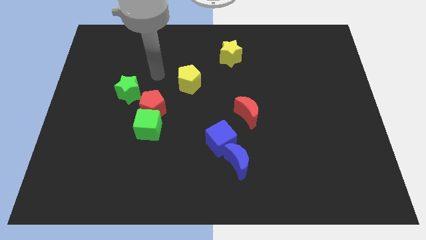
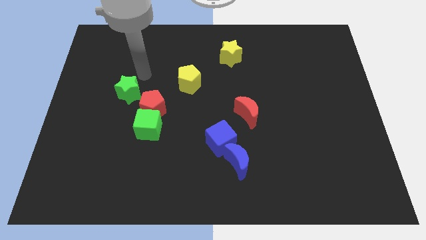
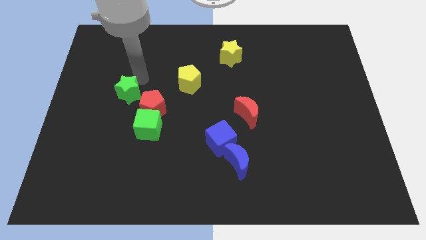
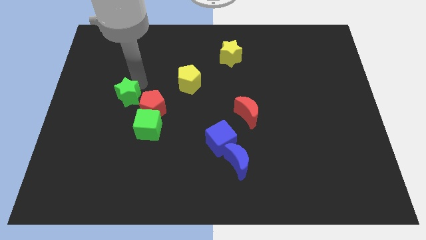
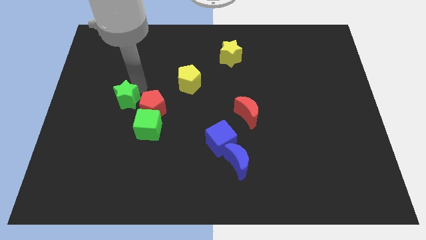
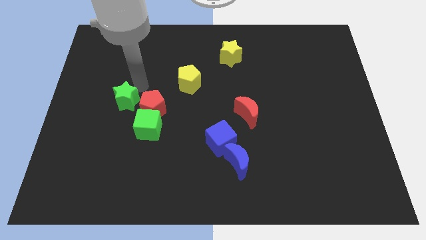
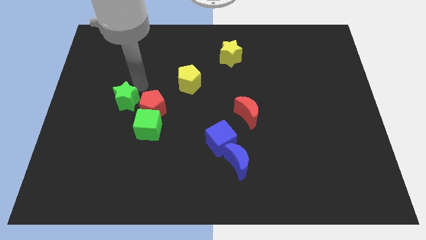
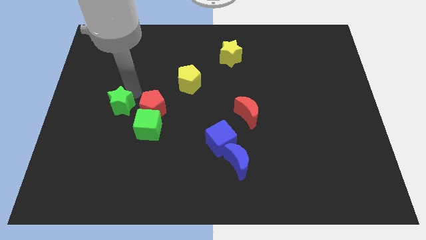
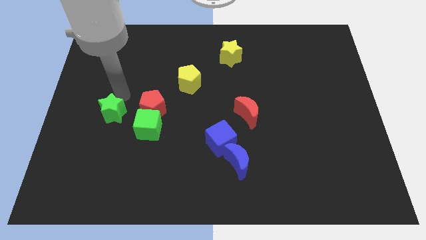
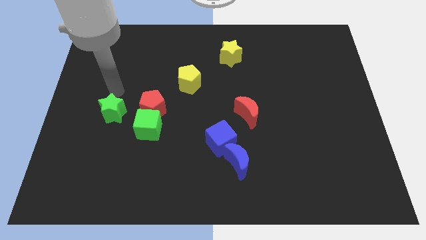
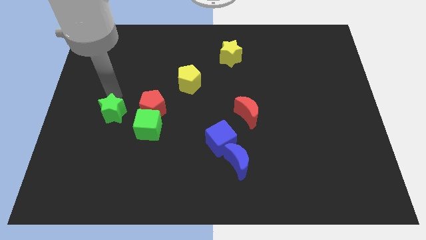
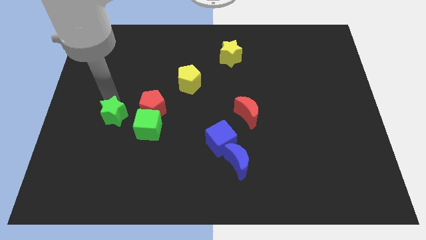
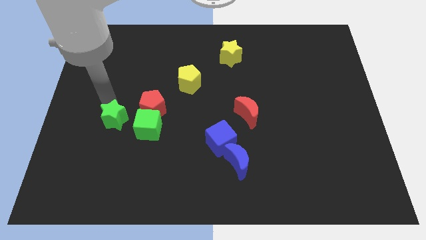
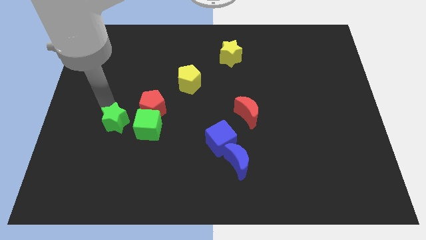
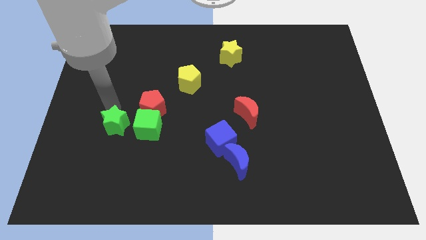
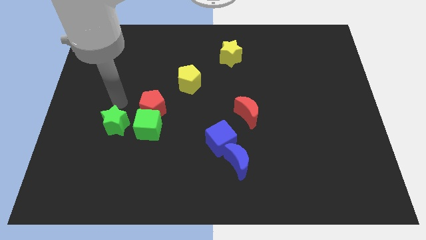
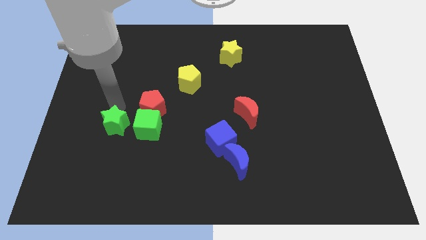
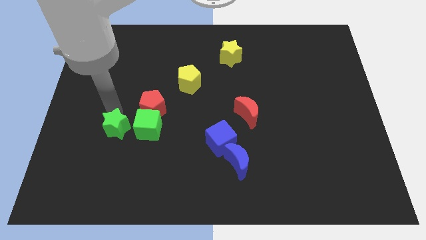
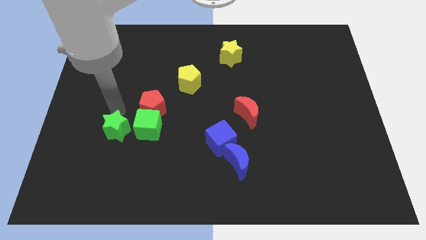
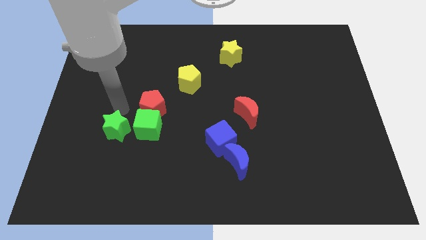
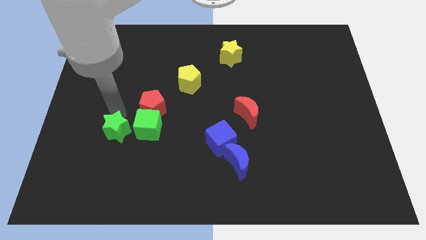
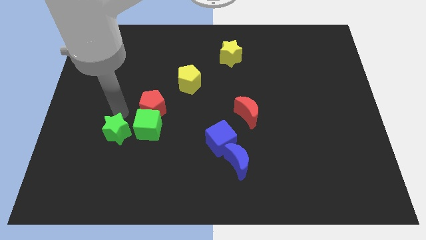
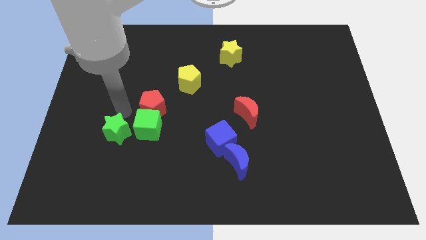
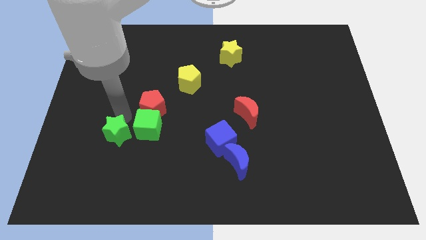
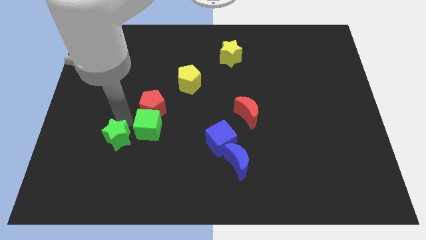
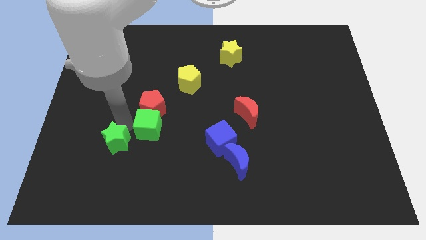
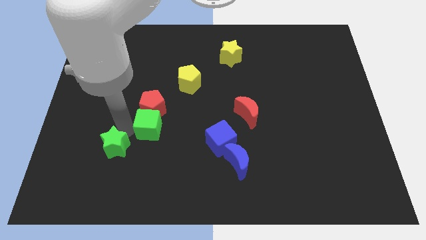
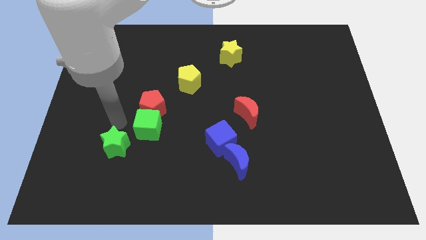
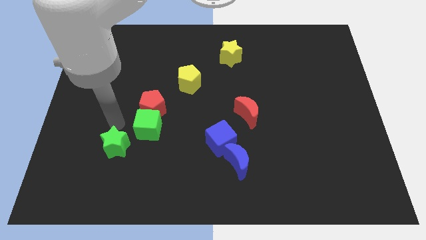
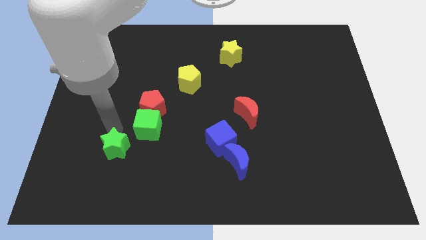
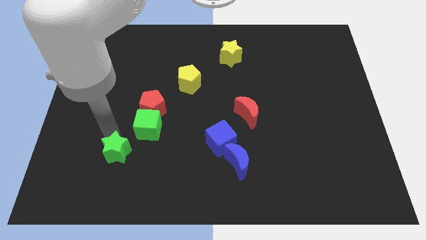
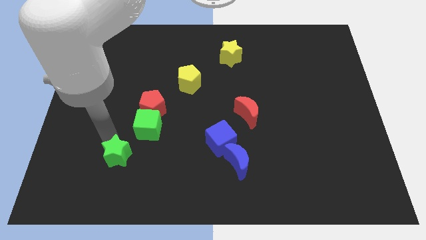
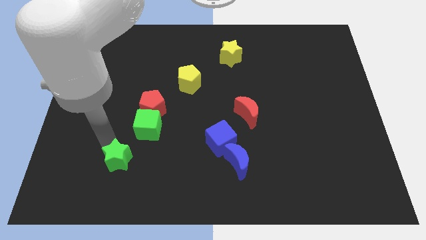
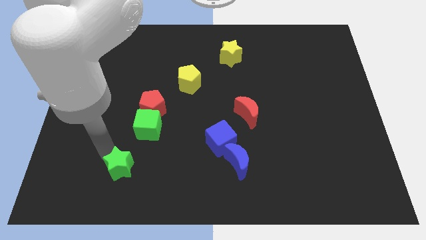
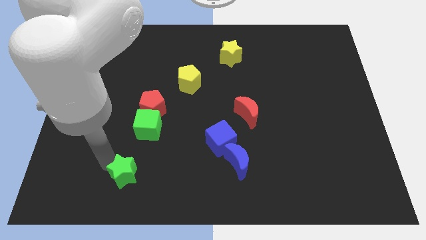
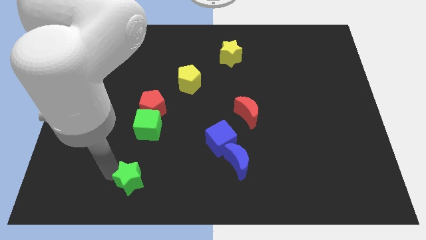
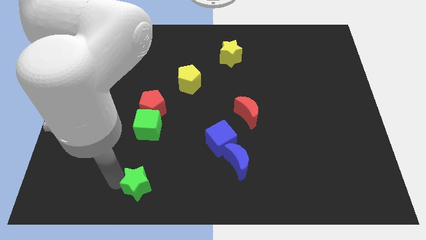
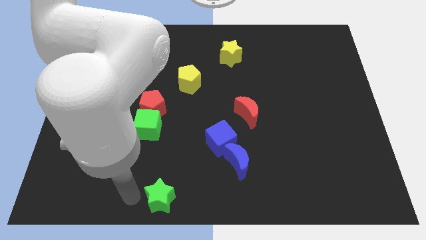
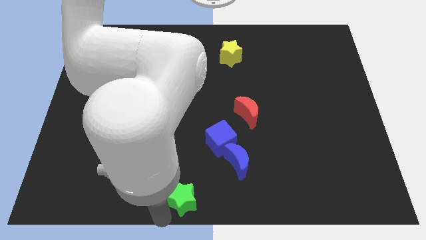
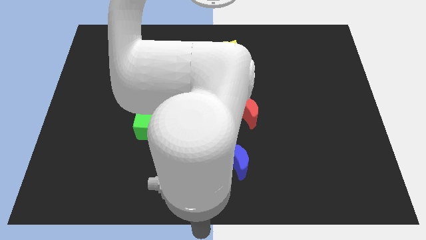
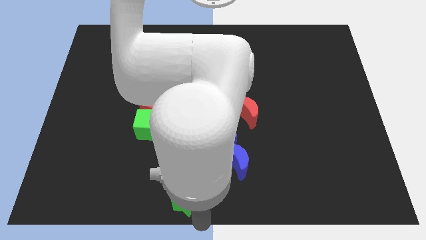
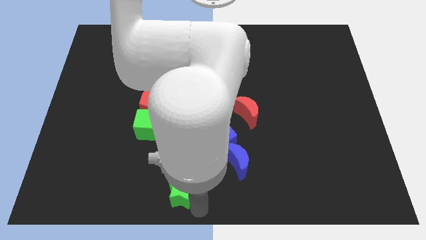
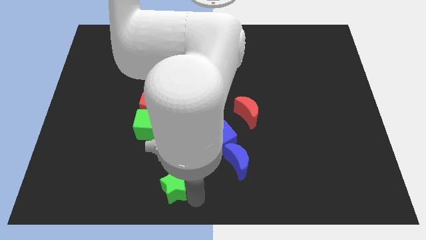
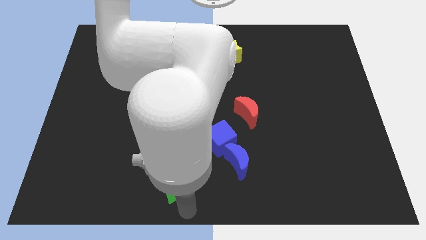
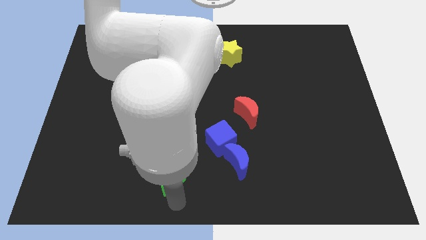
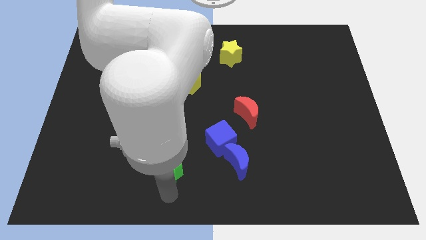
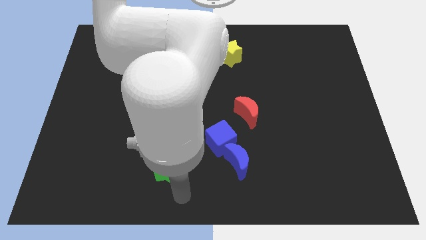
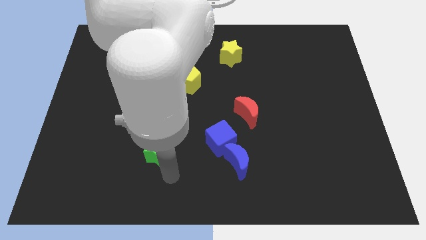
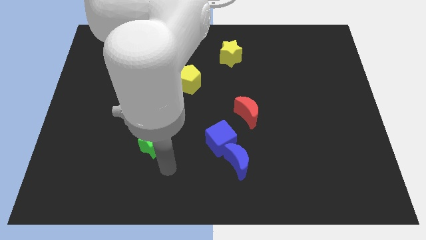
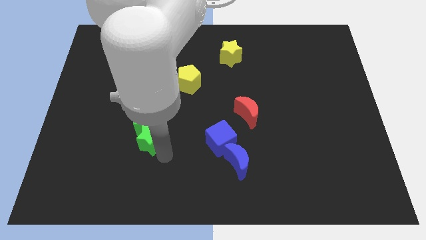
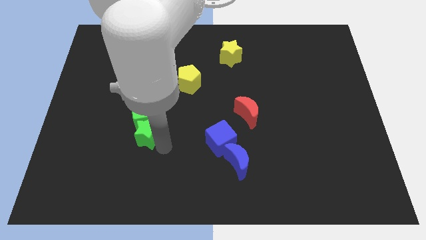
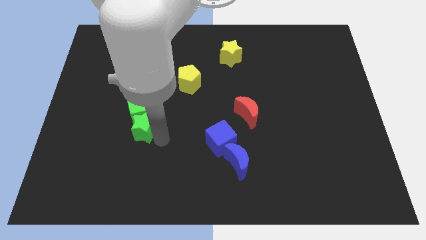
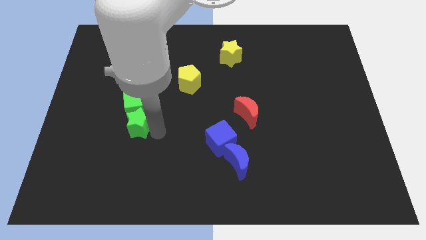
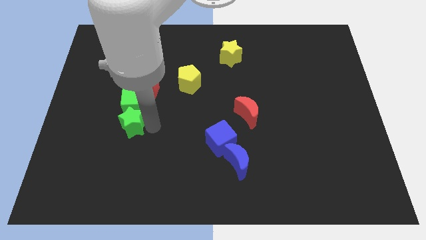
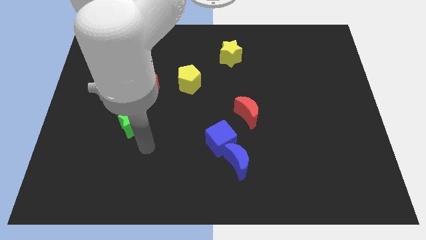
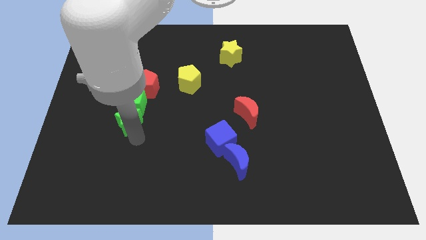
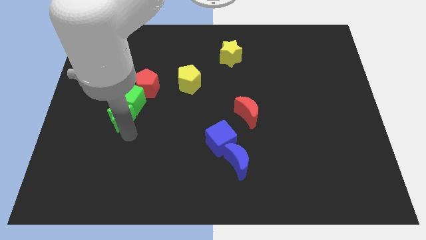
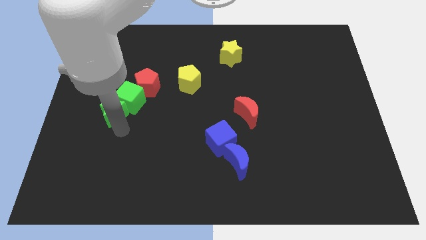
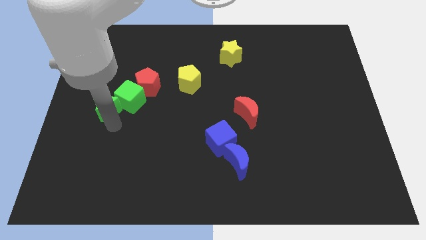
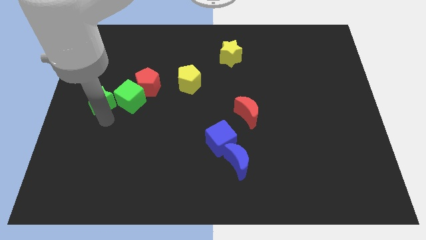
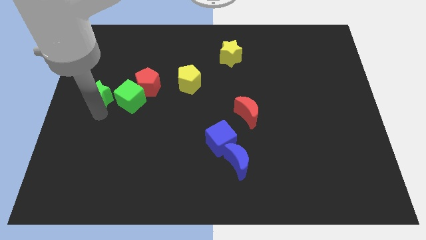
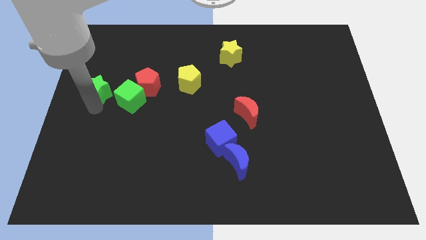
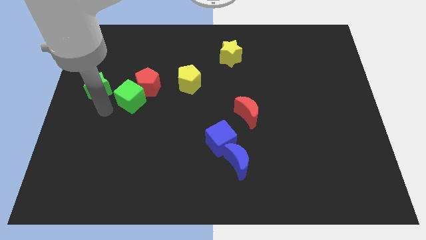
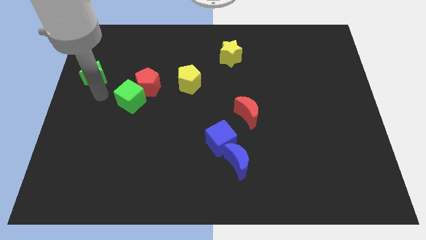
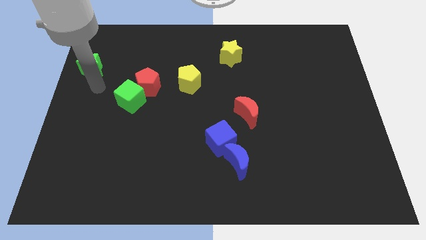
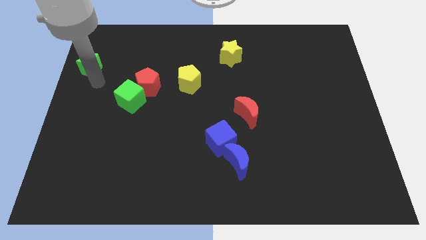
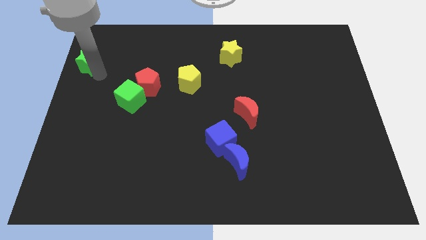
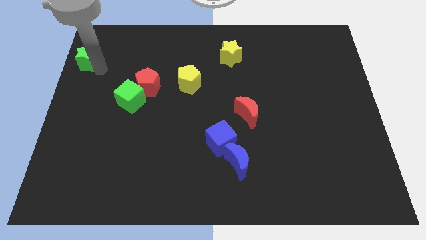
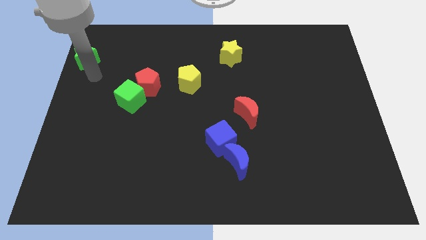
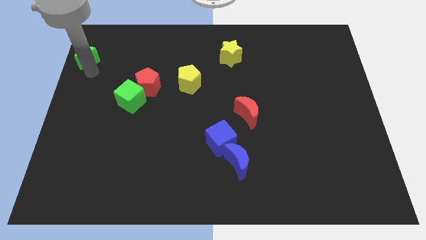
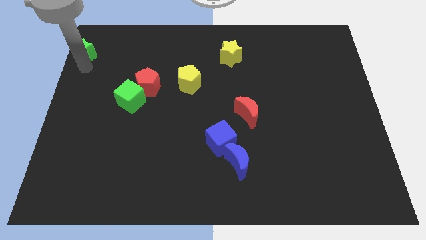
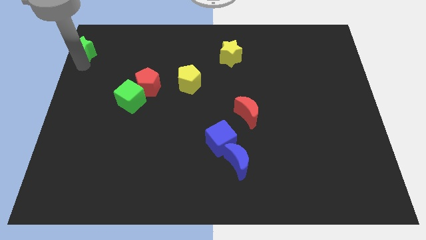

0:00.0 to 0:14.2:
put the green star to the top left corner
